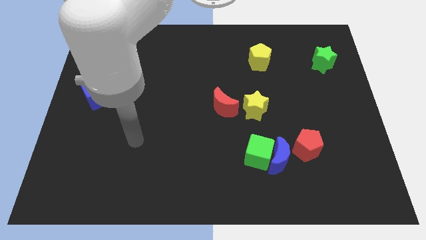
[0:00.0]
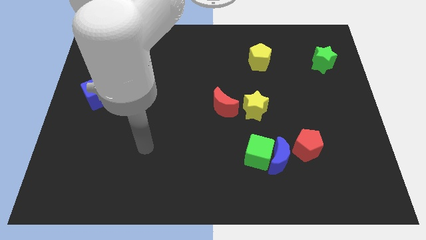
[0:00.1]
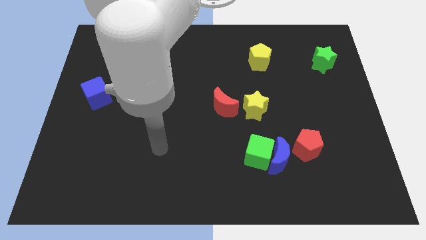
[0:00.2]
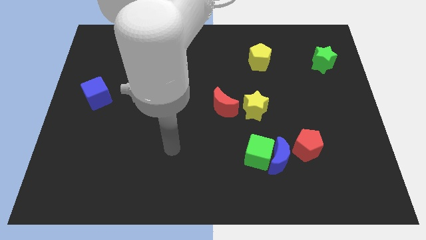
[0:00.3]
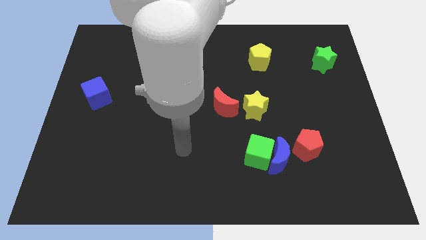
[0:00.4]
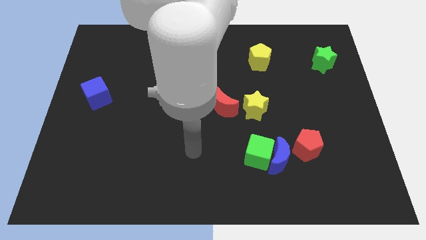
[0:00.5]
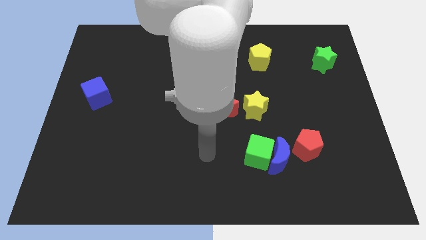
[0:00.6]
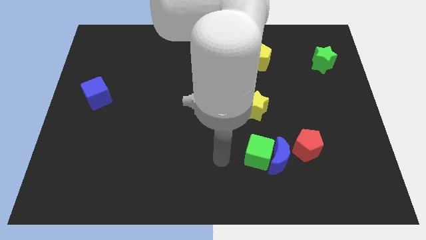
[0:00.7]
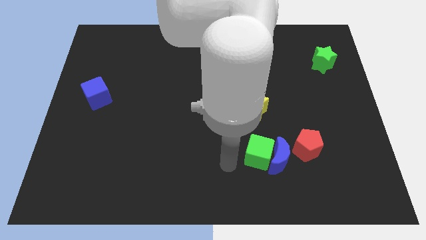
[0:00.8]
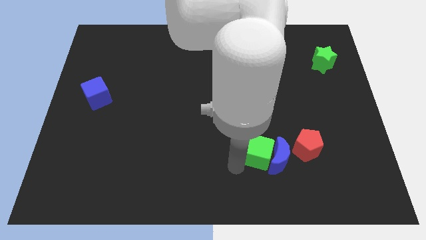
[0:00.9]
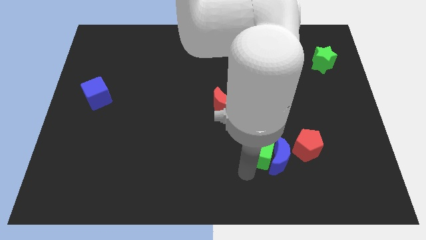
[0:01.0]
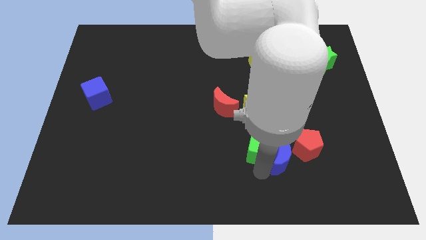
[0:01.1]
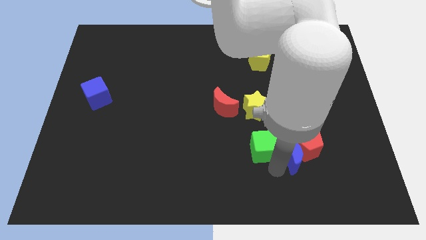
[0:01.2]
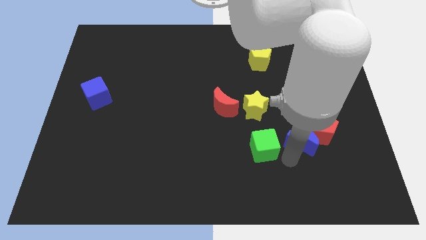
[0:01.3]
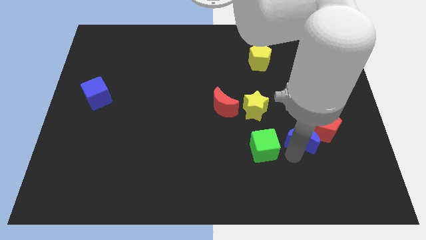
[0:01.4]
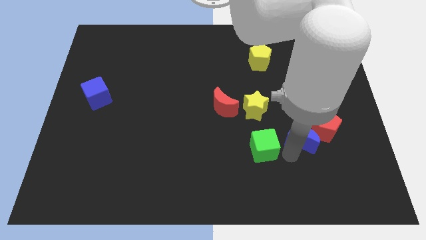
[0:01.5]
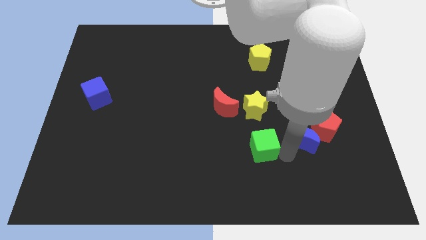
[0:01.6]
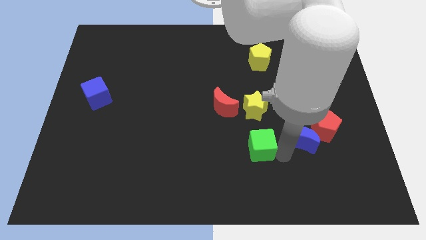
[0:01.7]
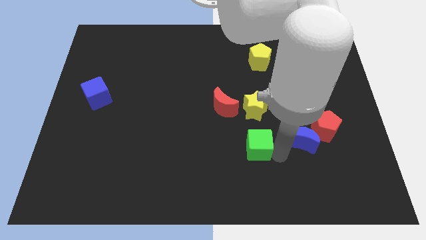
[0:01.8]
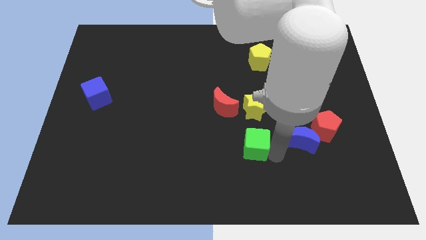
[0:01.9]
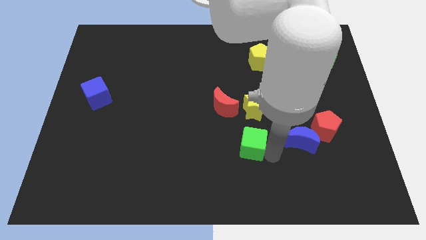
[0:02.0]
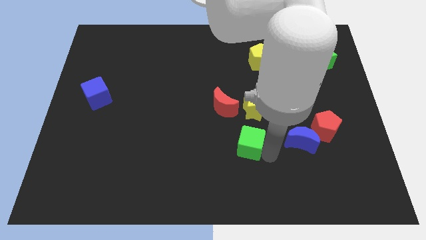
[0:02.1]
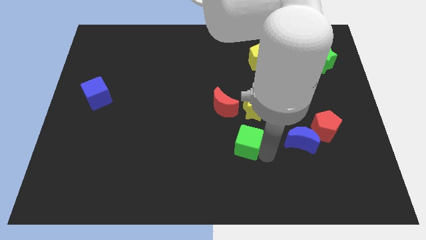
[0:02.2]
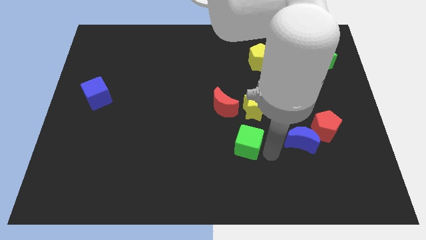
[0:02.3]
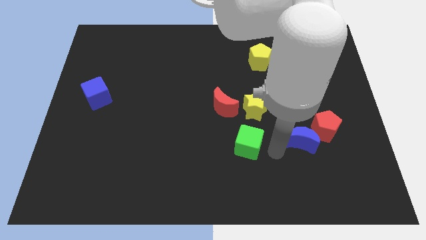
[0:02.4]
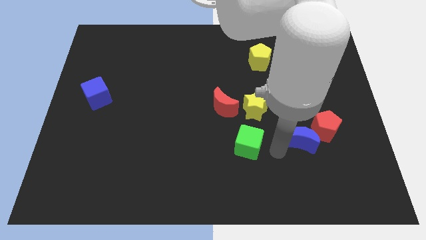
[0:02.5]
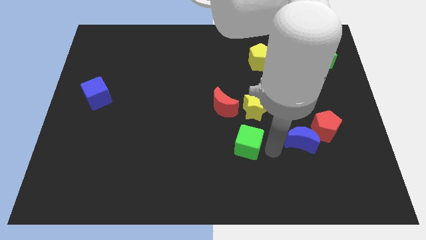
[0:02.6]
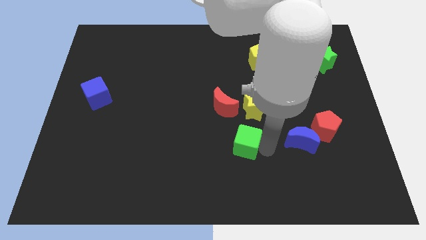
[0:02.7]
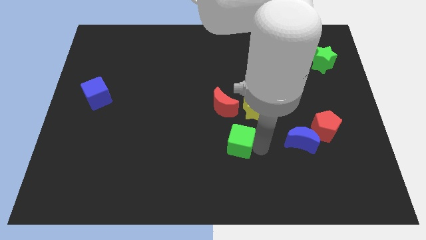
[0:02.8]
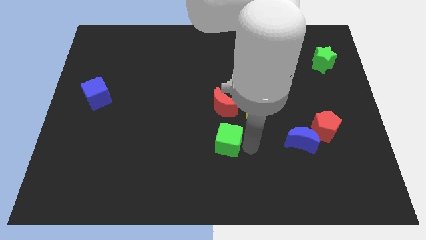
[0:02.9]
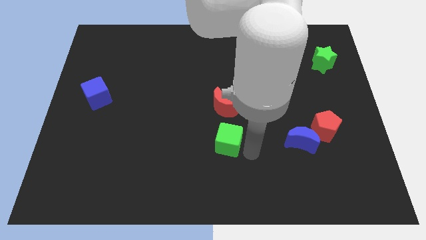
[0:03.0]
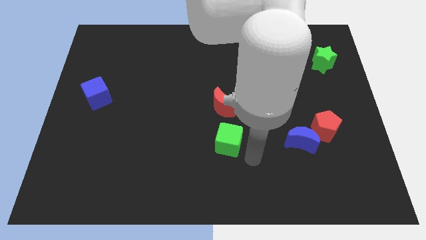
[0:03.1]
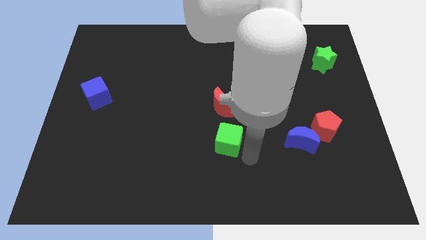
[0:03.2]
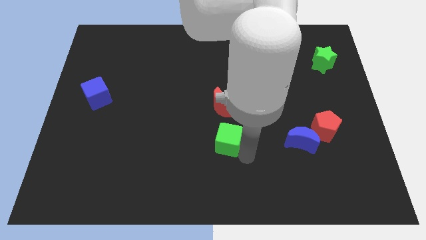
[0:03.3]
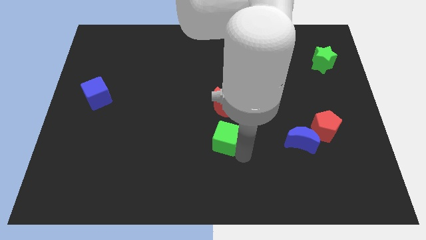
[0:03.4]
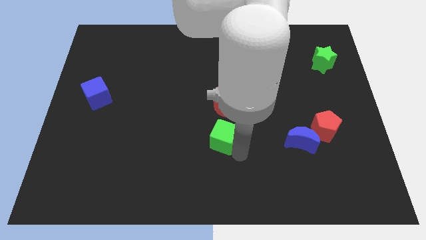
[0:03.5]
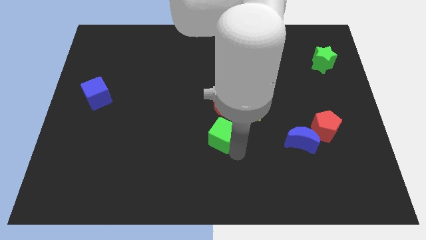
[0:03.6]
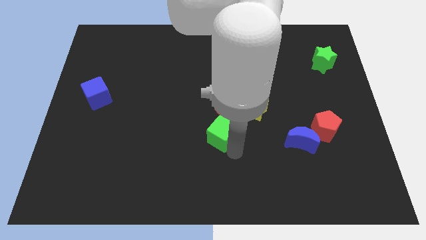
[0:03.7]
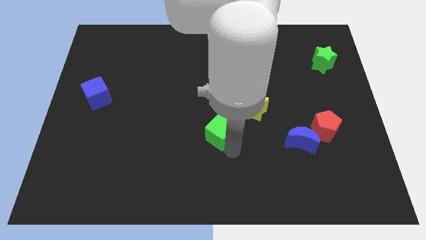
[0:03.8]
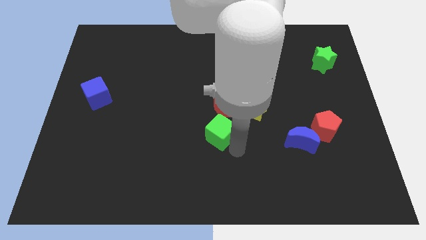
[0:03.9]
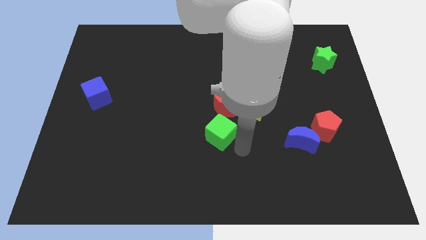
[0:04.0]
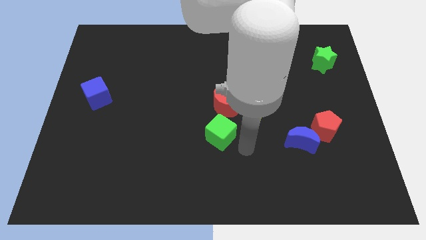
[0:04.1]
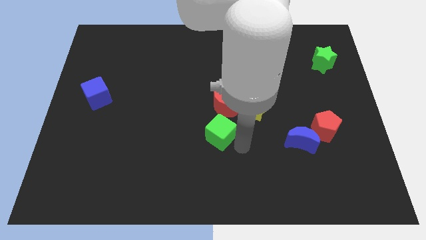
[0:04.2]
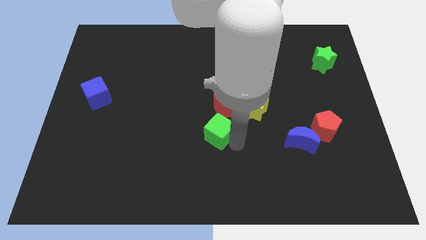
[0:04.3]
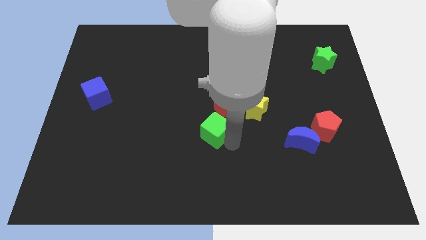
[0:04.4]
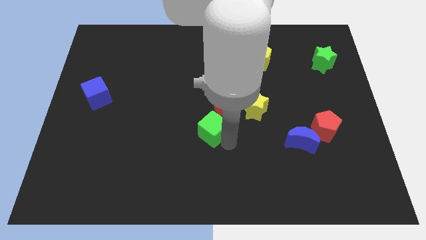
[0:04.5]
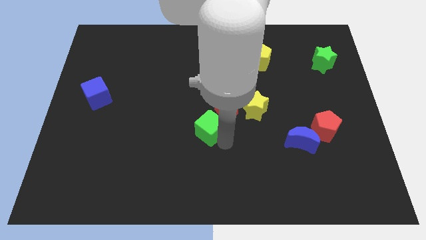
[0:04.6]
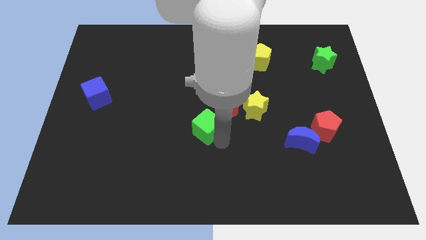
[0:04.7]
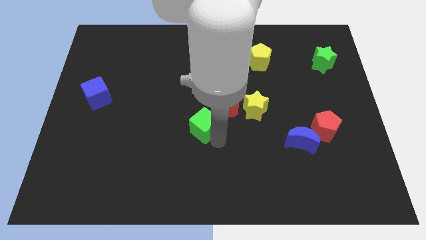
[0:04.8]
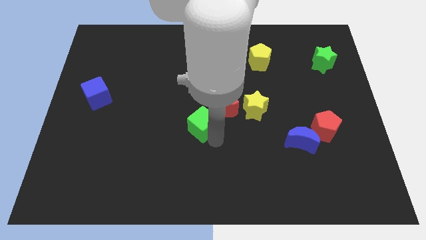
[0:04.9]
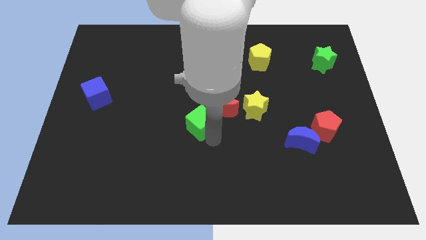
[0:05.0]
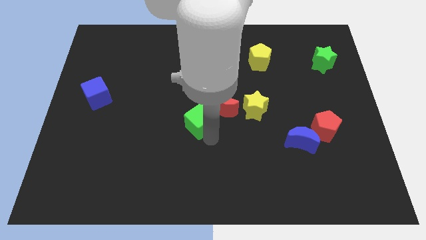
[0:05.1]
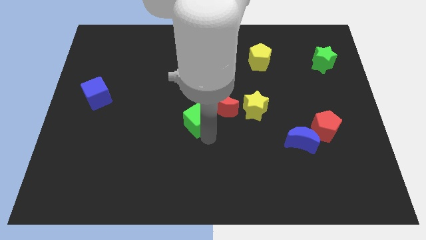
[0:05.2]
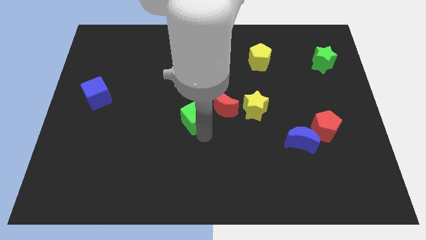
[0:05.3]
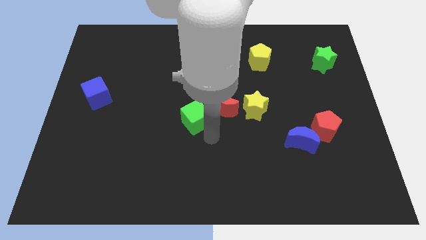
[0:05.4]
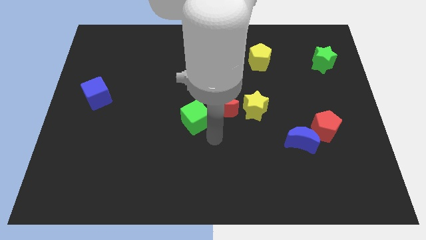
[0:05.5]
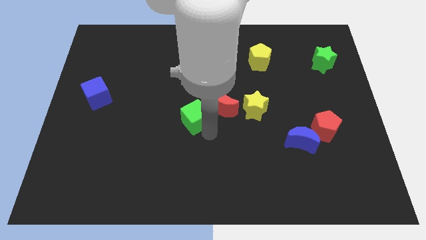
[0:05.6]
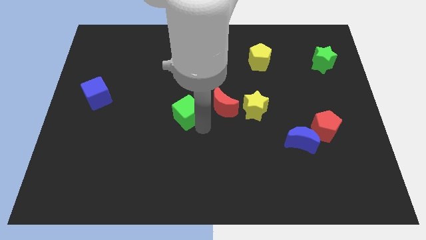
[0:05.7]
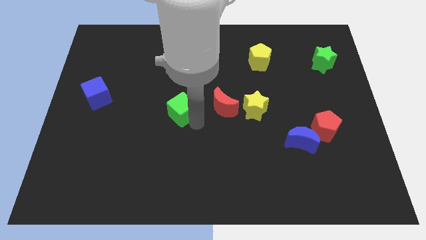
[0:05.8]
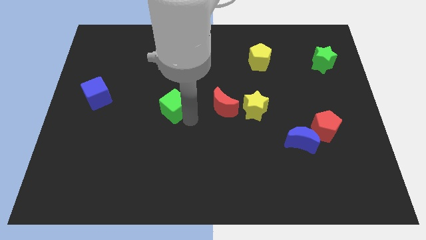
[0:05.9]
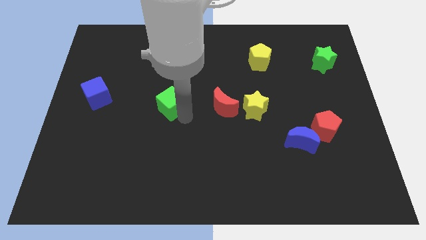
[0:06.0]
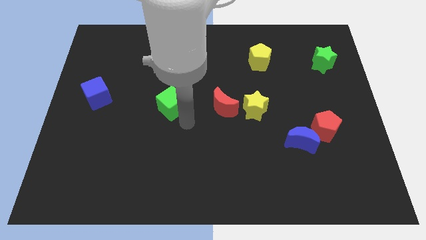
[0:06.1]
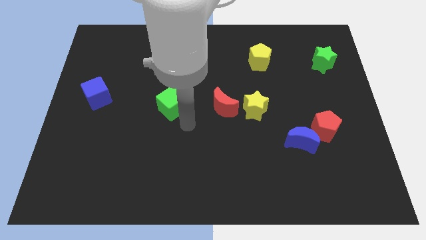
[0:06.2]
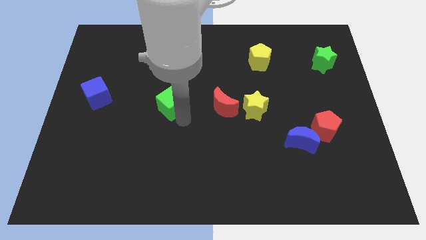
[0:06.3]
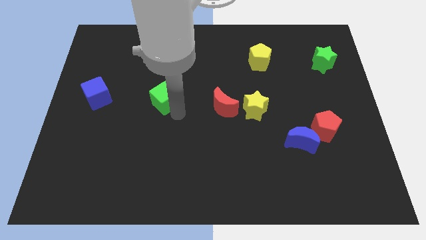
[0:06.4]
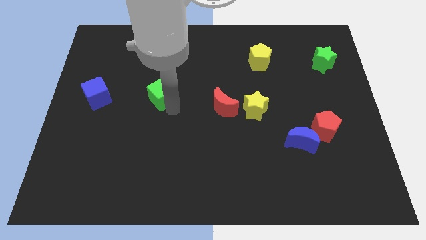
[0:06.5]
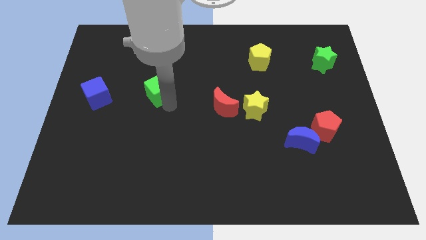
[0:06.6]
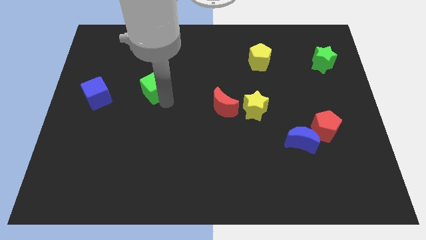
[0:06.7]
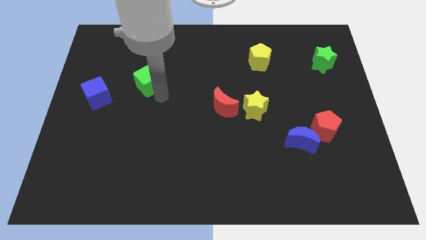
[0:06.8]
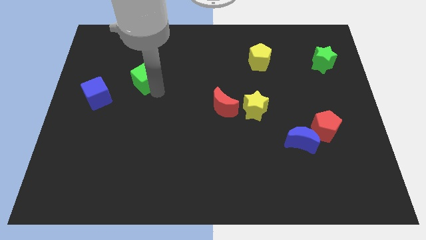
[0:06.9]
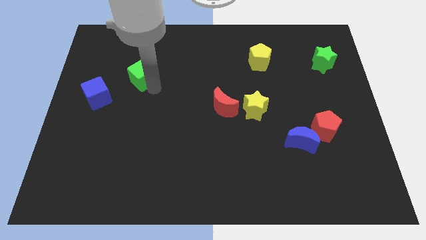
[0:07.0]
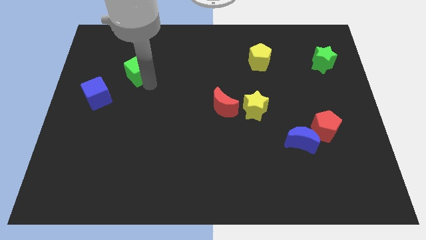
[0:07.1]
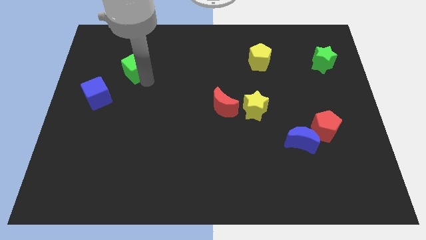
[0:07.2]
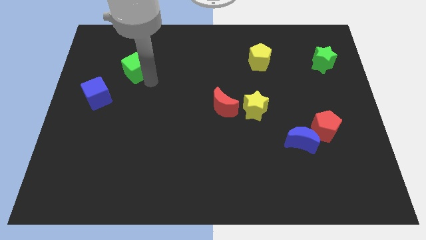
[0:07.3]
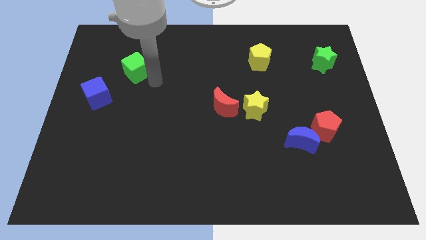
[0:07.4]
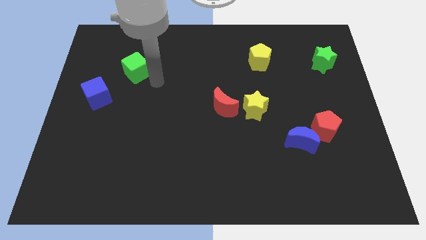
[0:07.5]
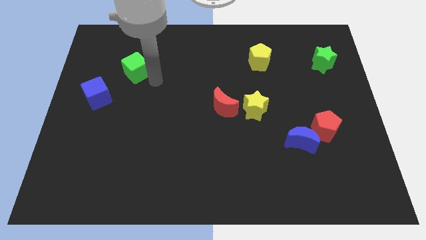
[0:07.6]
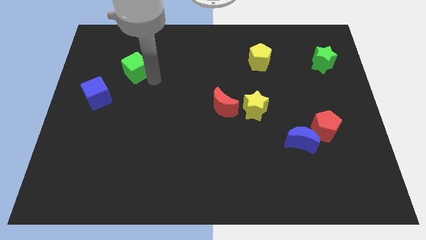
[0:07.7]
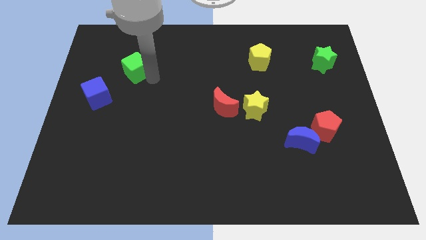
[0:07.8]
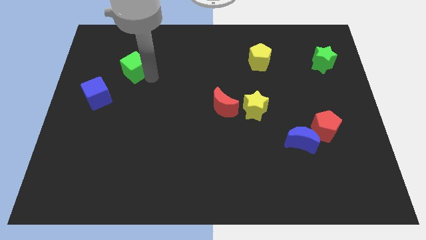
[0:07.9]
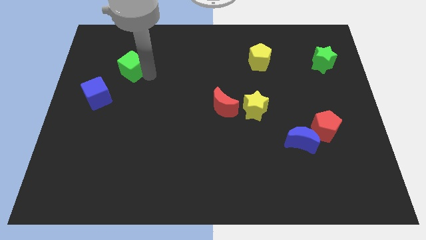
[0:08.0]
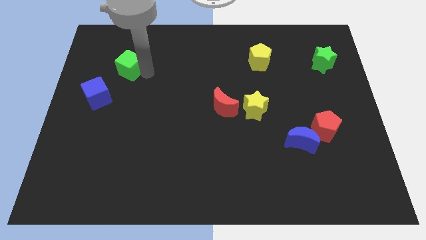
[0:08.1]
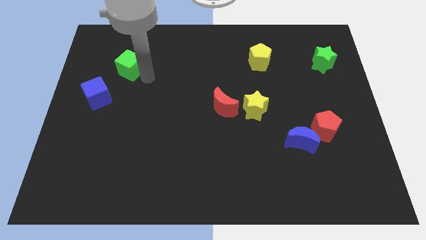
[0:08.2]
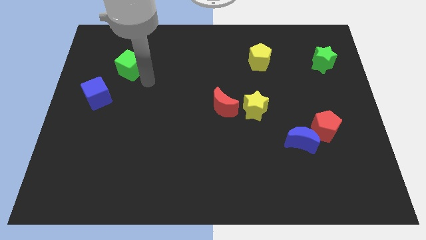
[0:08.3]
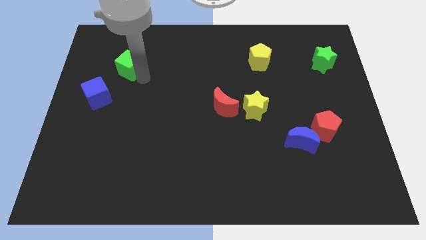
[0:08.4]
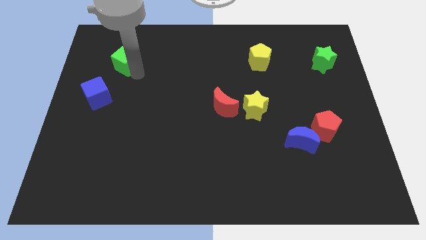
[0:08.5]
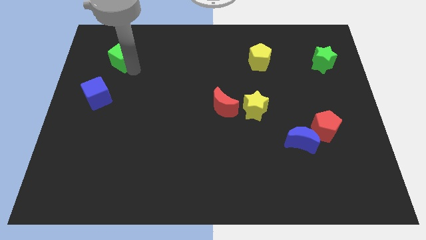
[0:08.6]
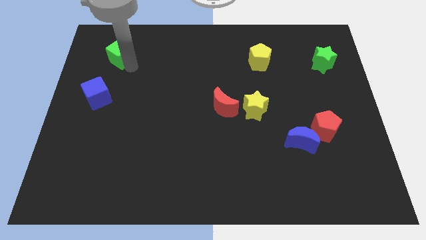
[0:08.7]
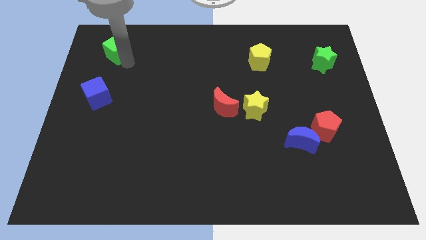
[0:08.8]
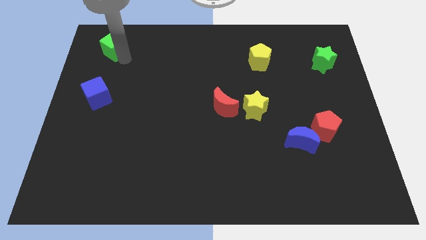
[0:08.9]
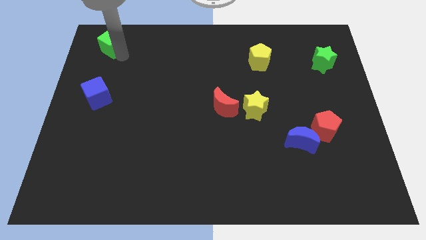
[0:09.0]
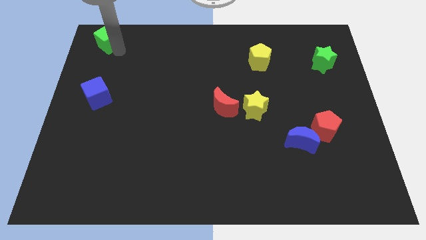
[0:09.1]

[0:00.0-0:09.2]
slide the green cube to the top left of the board
